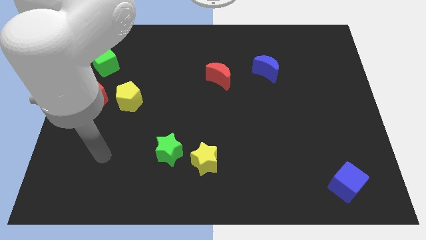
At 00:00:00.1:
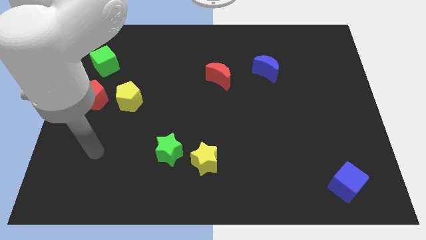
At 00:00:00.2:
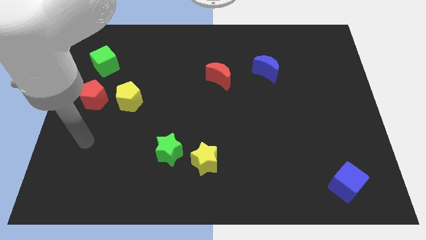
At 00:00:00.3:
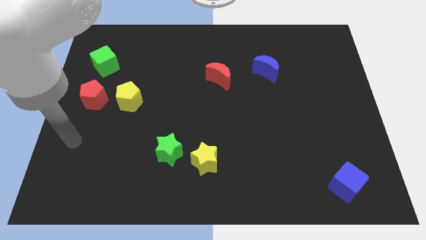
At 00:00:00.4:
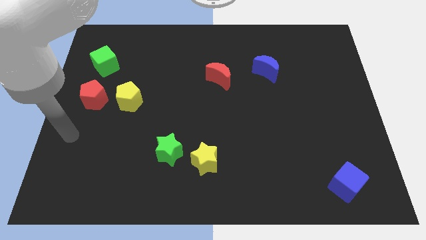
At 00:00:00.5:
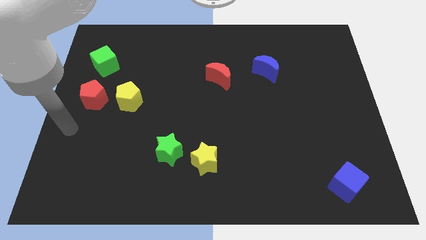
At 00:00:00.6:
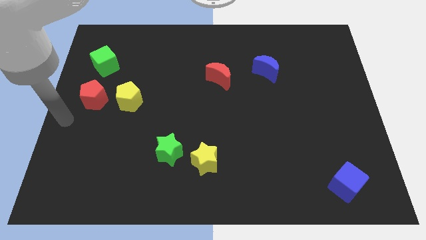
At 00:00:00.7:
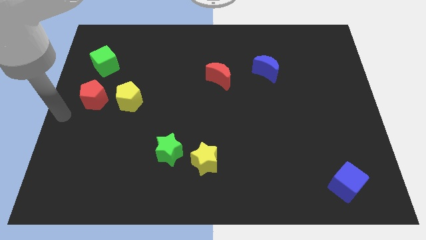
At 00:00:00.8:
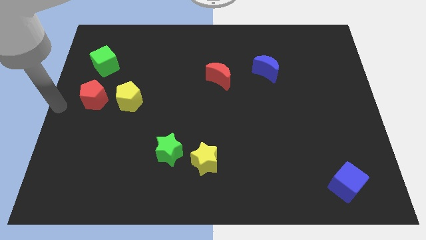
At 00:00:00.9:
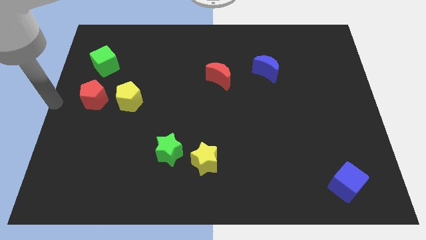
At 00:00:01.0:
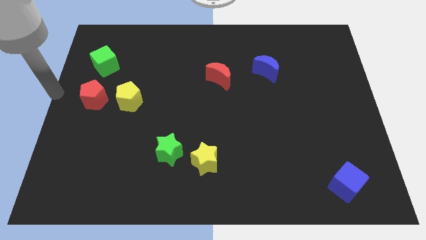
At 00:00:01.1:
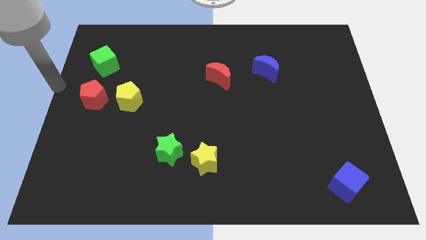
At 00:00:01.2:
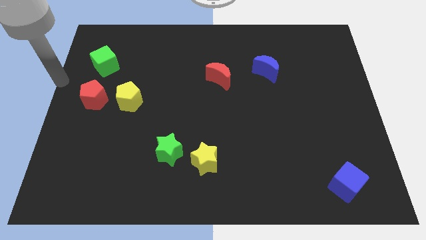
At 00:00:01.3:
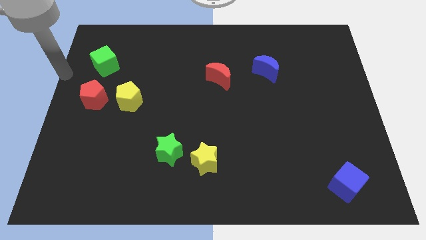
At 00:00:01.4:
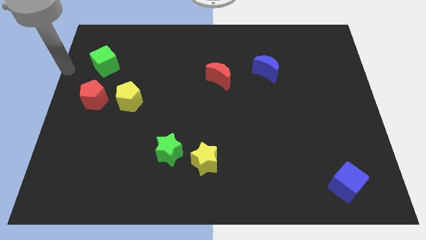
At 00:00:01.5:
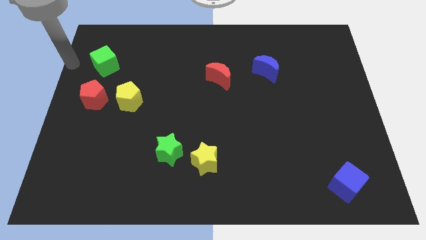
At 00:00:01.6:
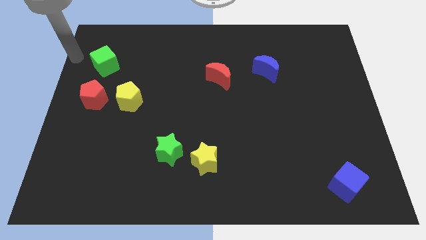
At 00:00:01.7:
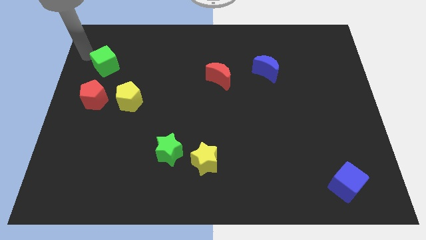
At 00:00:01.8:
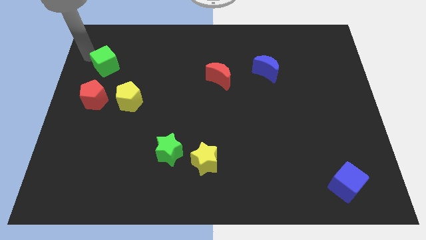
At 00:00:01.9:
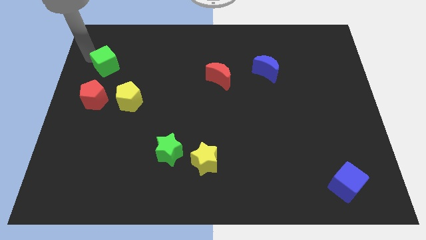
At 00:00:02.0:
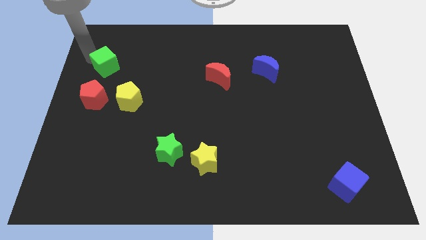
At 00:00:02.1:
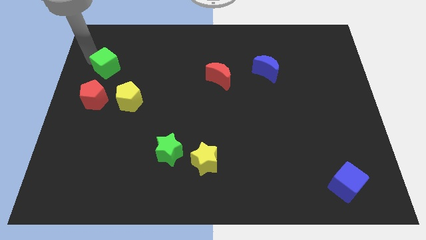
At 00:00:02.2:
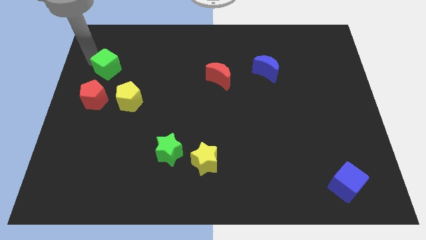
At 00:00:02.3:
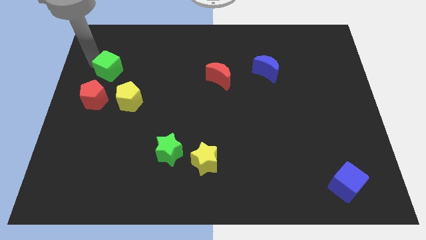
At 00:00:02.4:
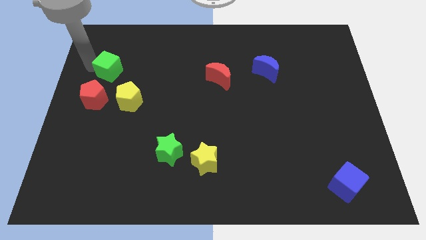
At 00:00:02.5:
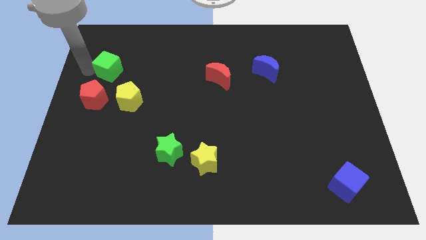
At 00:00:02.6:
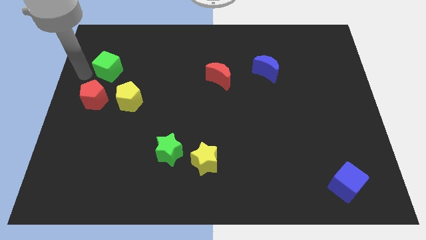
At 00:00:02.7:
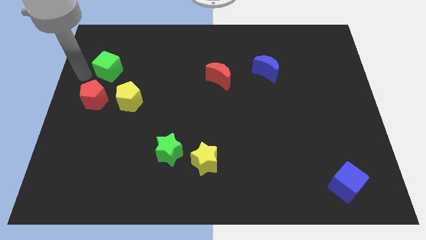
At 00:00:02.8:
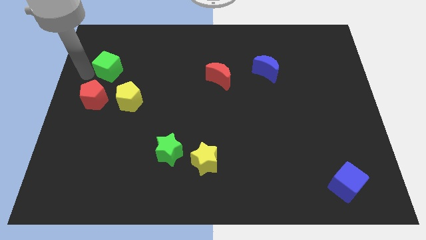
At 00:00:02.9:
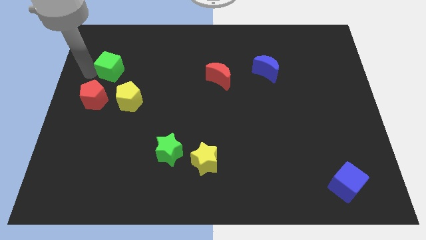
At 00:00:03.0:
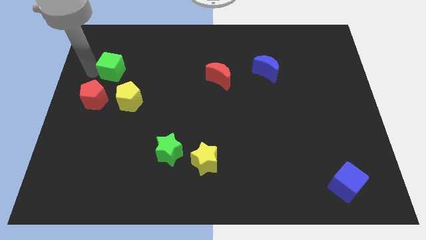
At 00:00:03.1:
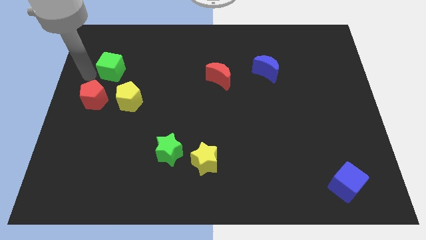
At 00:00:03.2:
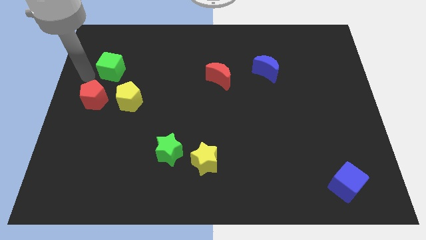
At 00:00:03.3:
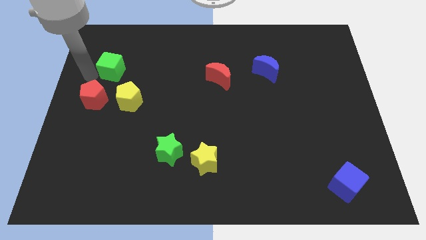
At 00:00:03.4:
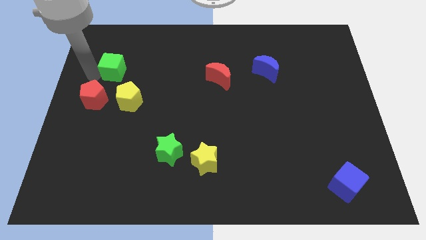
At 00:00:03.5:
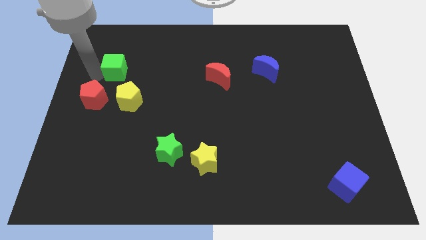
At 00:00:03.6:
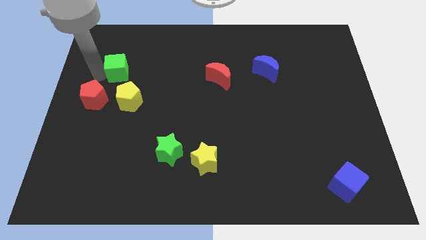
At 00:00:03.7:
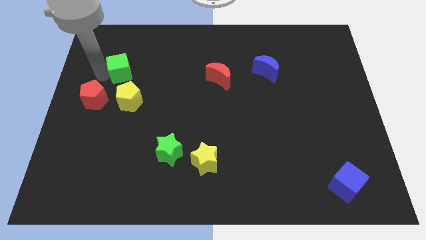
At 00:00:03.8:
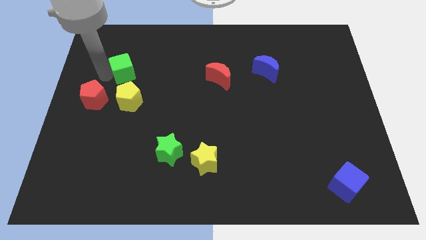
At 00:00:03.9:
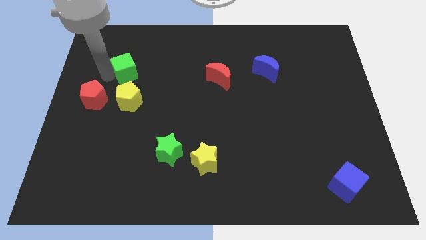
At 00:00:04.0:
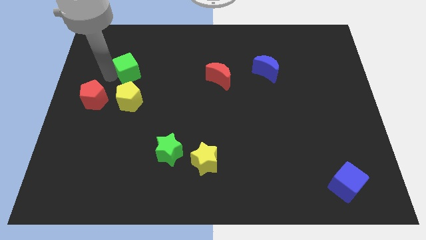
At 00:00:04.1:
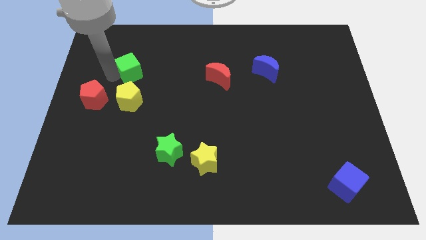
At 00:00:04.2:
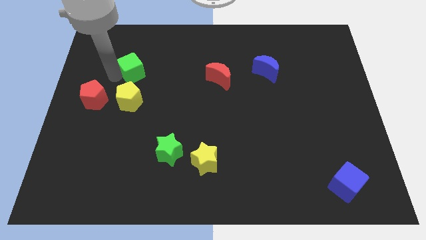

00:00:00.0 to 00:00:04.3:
slightly move the green cube right

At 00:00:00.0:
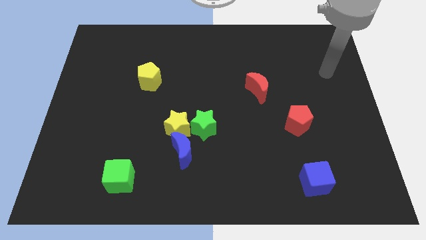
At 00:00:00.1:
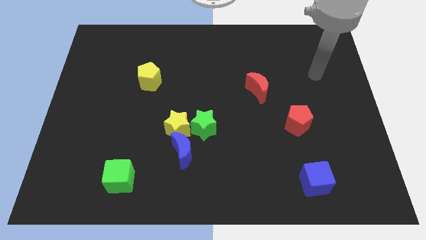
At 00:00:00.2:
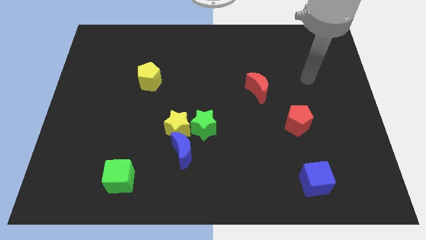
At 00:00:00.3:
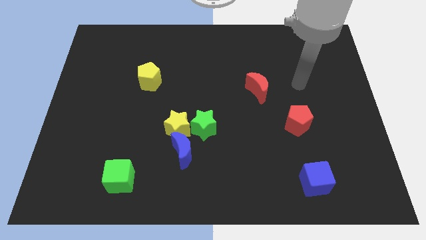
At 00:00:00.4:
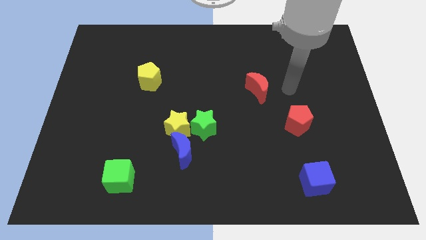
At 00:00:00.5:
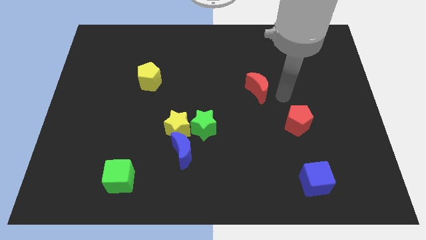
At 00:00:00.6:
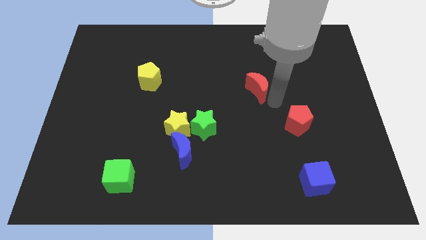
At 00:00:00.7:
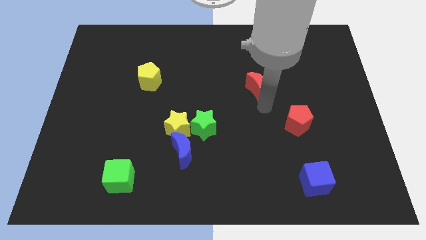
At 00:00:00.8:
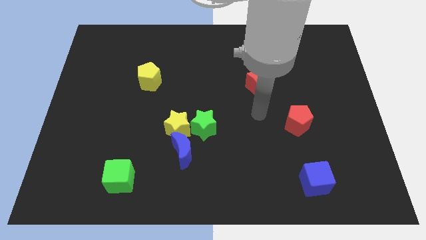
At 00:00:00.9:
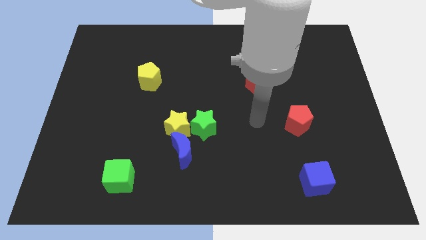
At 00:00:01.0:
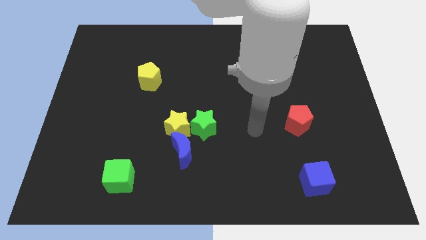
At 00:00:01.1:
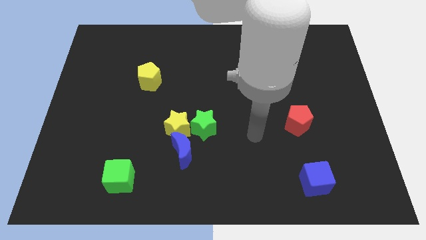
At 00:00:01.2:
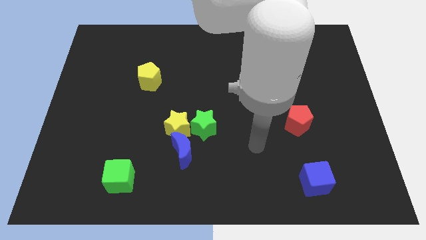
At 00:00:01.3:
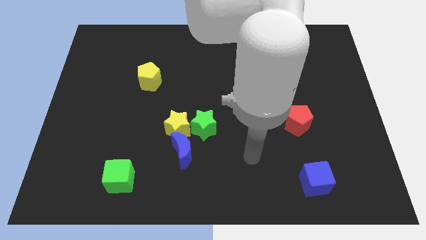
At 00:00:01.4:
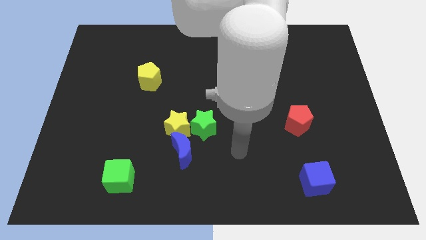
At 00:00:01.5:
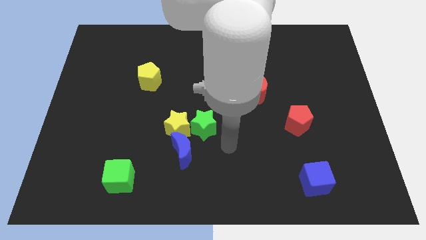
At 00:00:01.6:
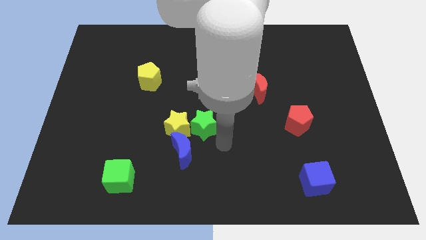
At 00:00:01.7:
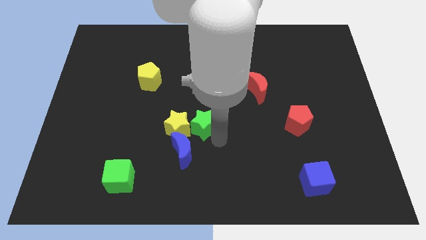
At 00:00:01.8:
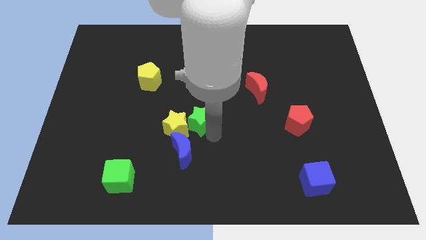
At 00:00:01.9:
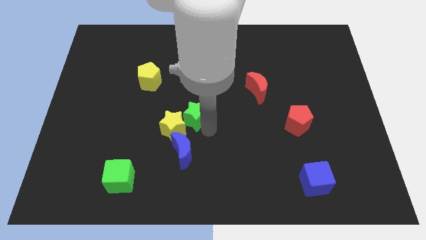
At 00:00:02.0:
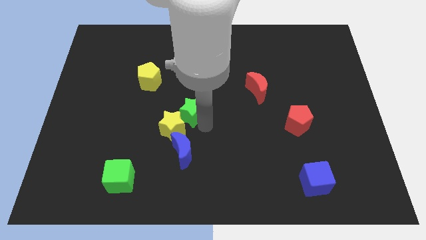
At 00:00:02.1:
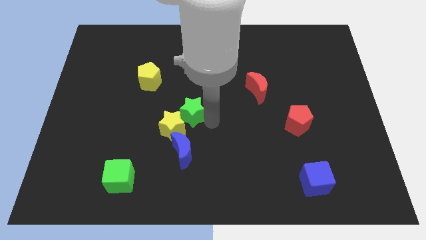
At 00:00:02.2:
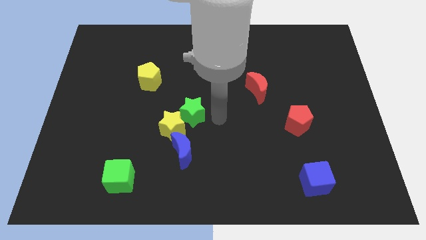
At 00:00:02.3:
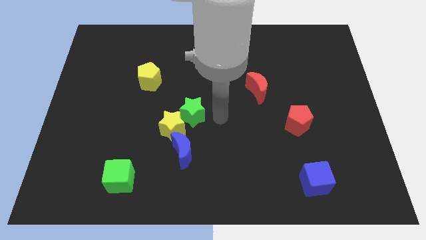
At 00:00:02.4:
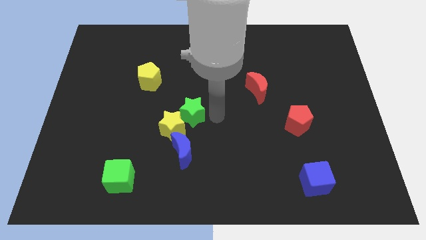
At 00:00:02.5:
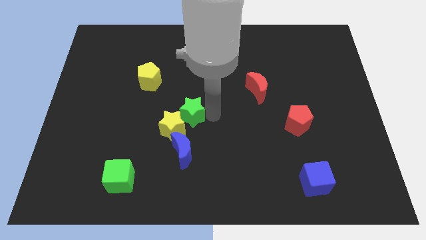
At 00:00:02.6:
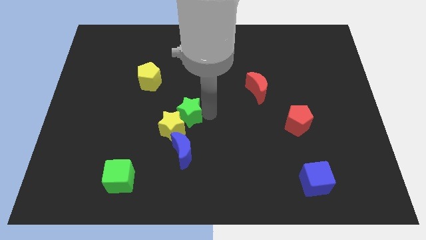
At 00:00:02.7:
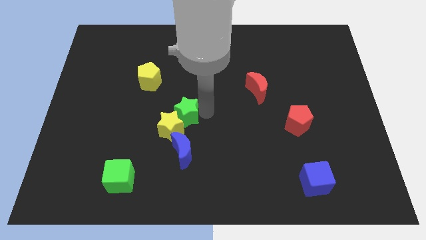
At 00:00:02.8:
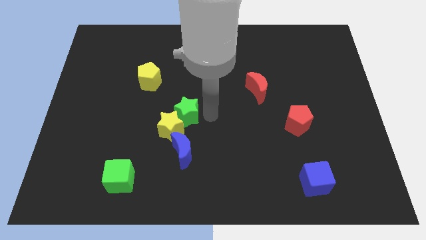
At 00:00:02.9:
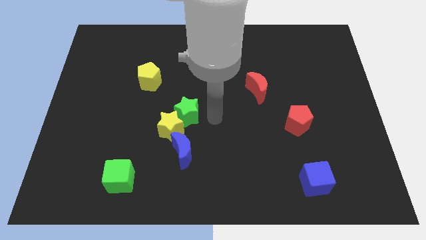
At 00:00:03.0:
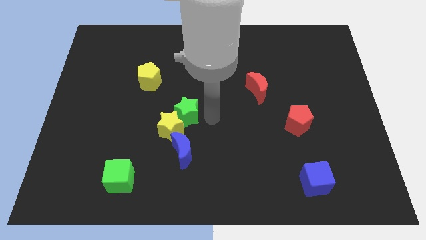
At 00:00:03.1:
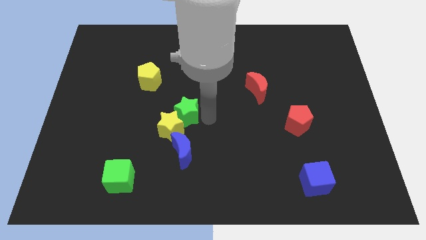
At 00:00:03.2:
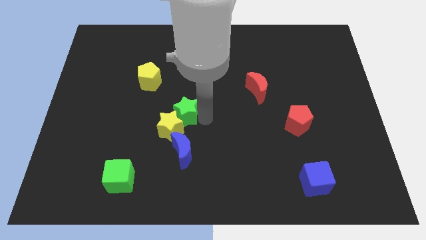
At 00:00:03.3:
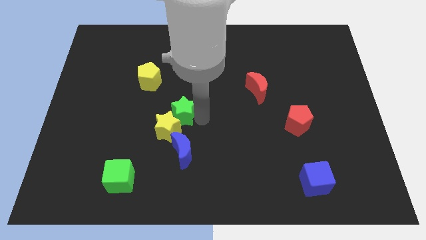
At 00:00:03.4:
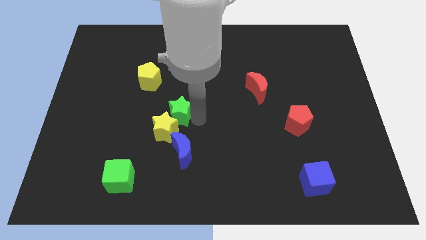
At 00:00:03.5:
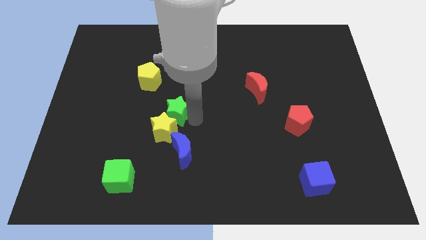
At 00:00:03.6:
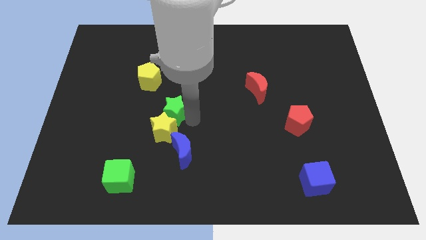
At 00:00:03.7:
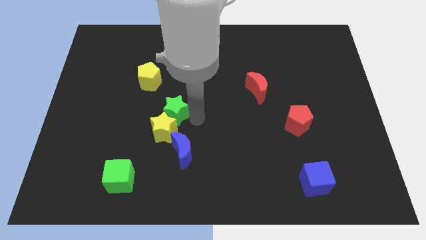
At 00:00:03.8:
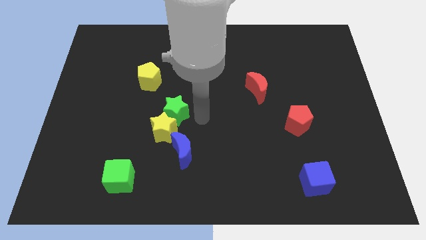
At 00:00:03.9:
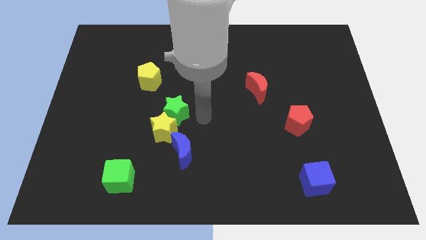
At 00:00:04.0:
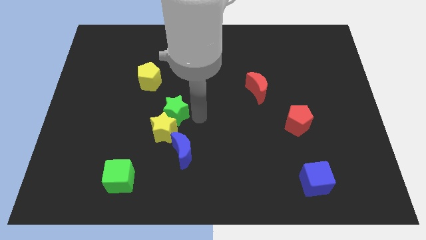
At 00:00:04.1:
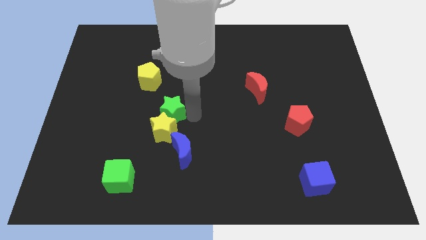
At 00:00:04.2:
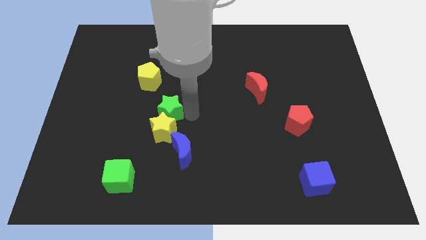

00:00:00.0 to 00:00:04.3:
move the green star left a little
